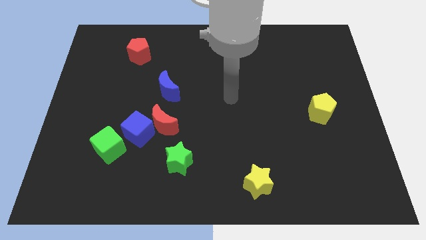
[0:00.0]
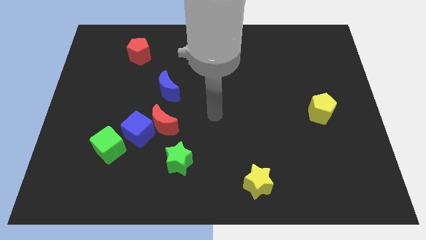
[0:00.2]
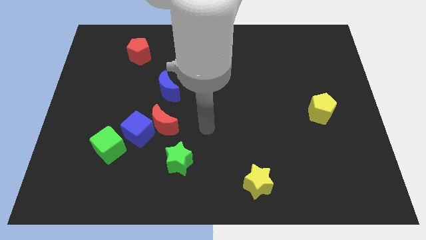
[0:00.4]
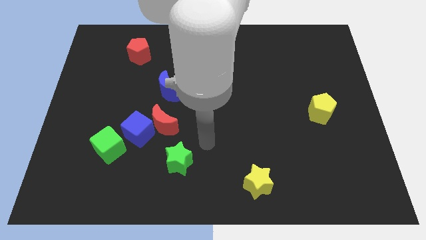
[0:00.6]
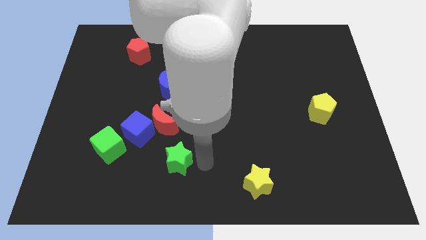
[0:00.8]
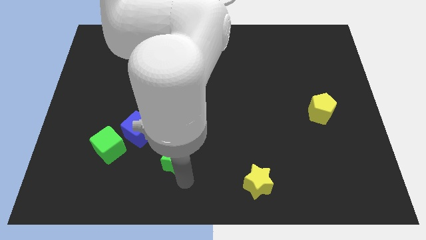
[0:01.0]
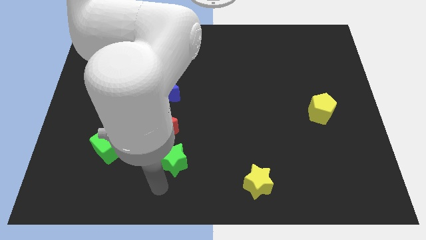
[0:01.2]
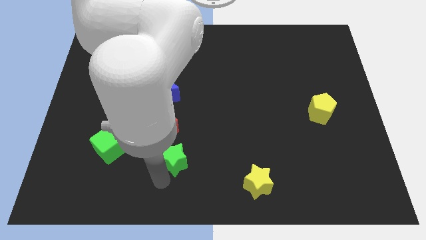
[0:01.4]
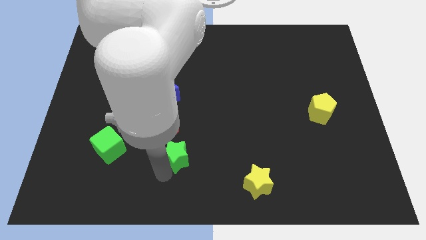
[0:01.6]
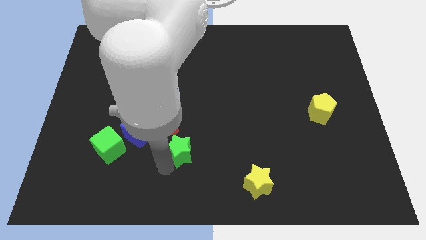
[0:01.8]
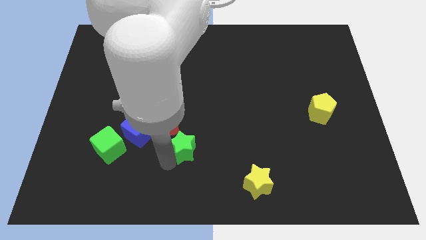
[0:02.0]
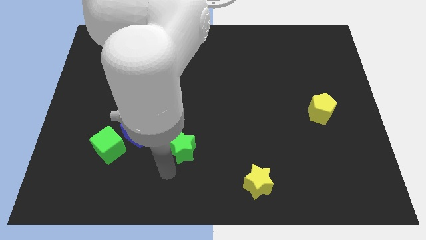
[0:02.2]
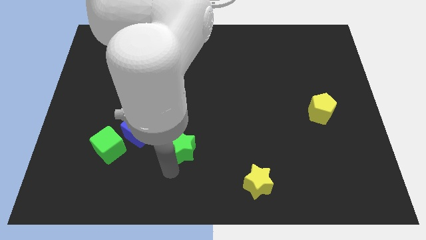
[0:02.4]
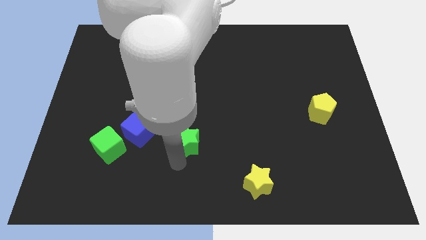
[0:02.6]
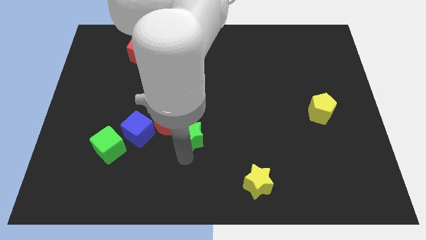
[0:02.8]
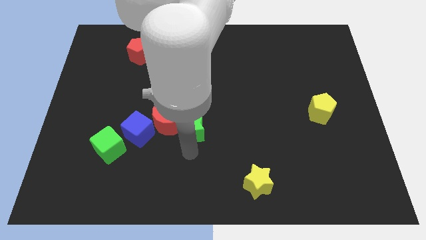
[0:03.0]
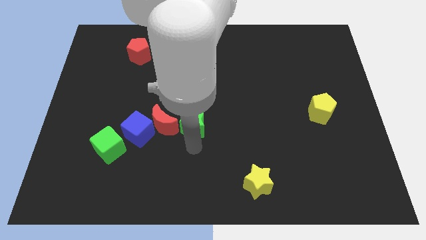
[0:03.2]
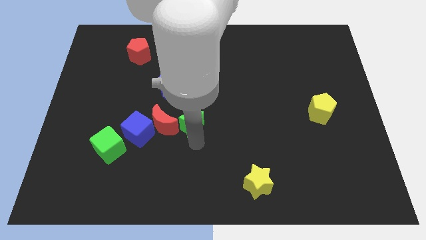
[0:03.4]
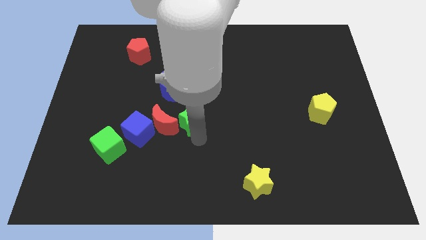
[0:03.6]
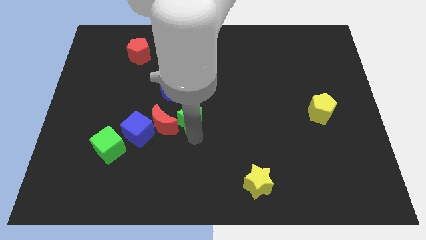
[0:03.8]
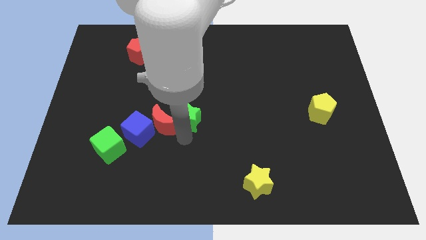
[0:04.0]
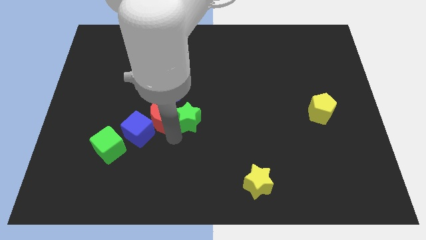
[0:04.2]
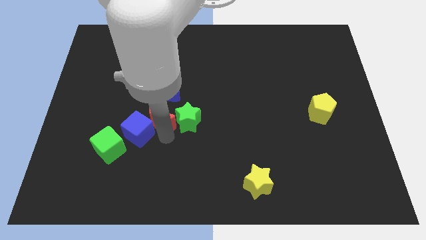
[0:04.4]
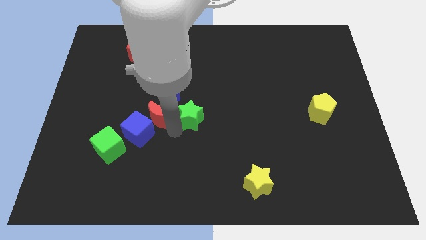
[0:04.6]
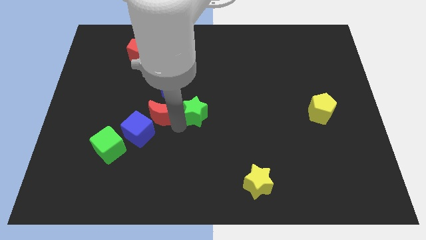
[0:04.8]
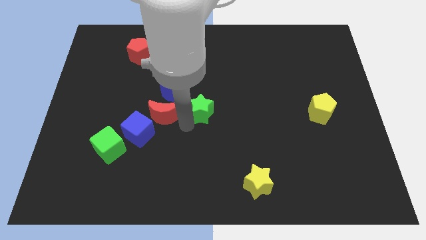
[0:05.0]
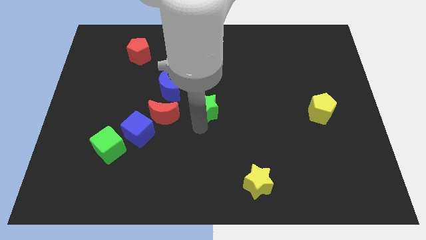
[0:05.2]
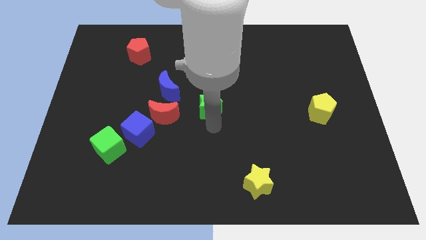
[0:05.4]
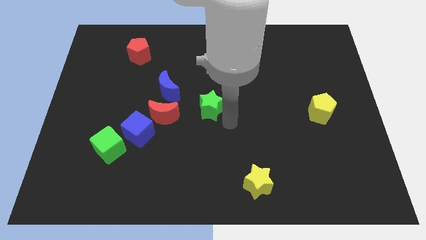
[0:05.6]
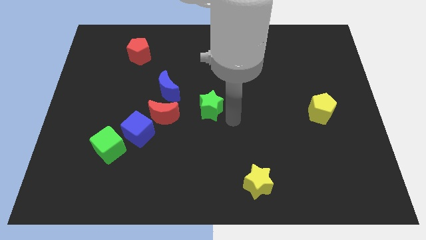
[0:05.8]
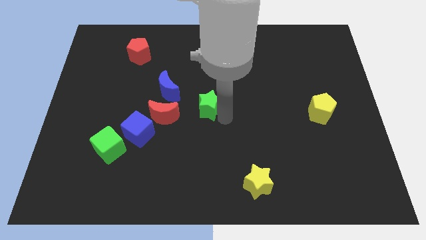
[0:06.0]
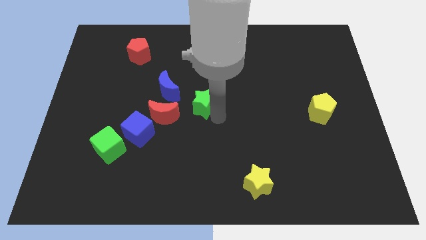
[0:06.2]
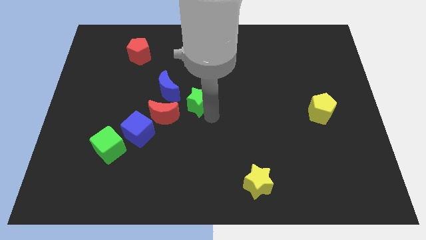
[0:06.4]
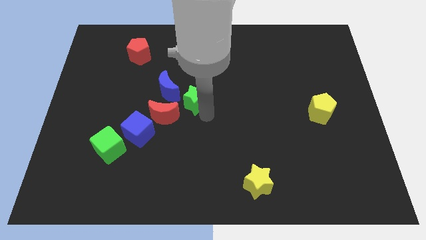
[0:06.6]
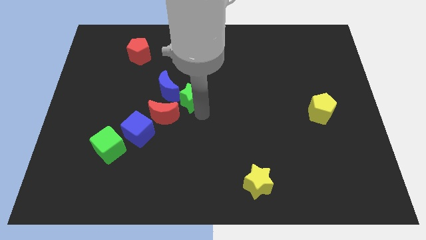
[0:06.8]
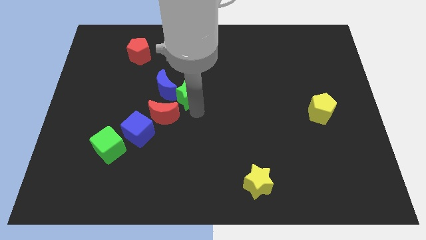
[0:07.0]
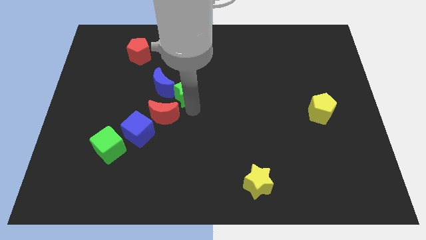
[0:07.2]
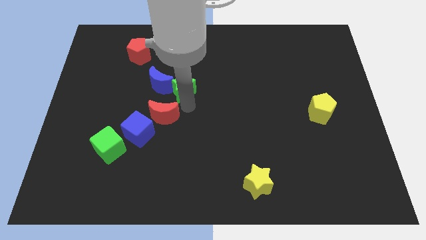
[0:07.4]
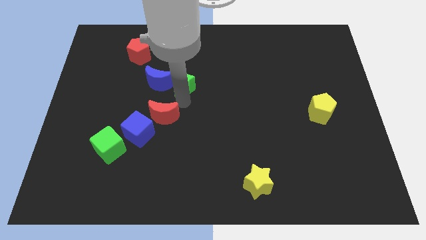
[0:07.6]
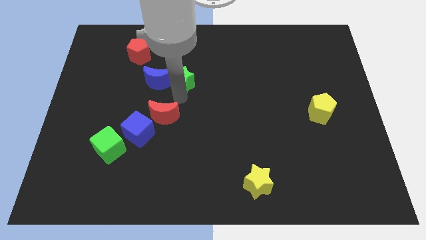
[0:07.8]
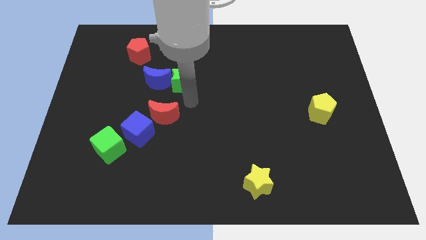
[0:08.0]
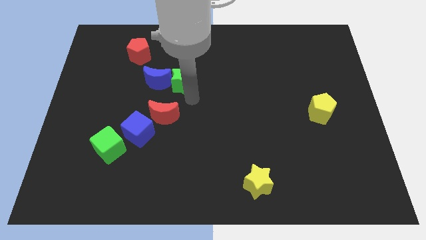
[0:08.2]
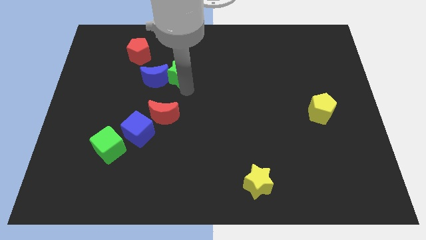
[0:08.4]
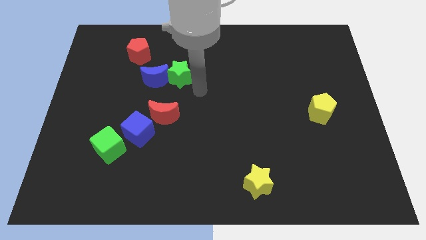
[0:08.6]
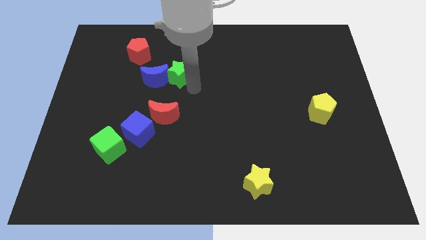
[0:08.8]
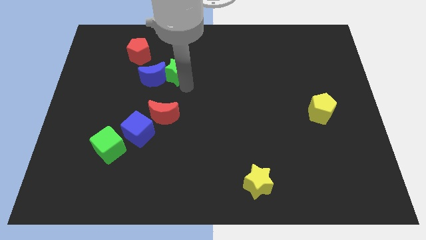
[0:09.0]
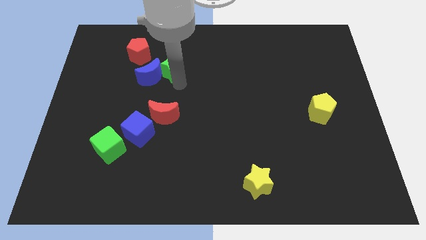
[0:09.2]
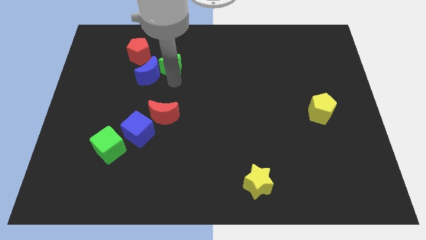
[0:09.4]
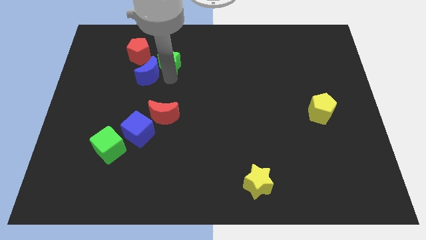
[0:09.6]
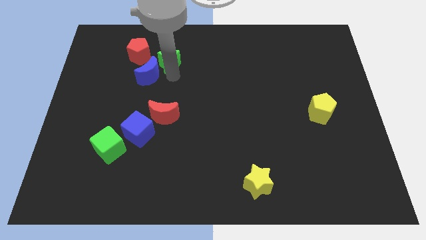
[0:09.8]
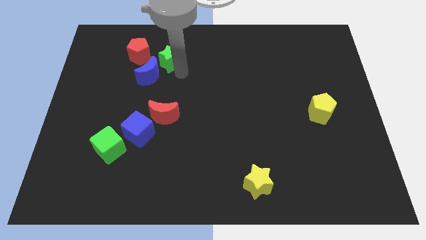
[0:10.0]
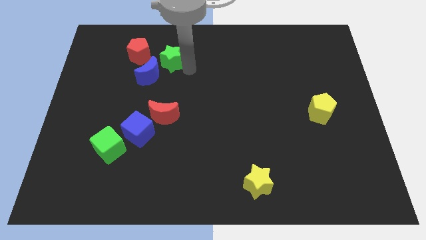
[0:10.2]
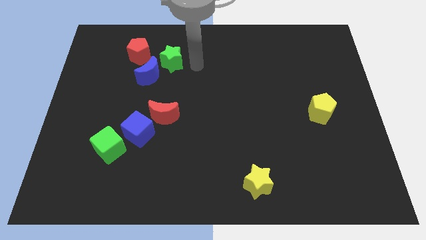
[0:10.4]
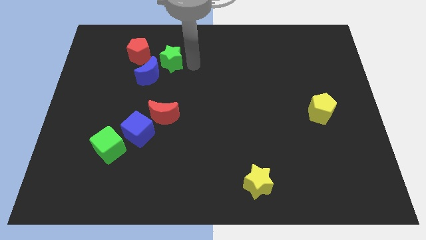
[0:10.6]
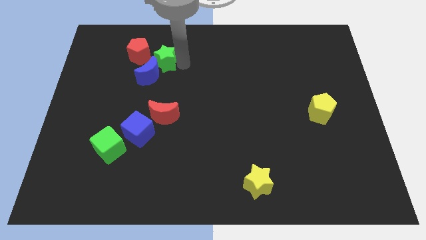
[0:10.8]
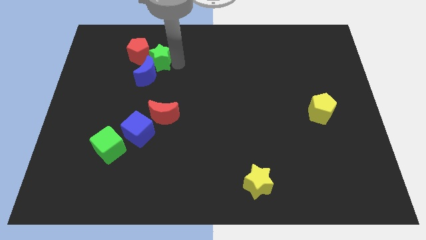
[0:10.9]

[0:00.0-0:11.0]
move the green star next to the red pentagon

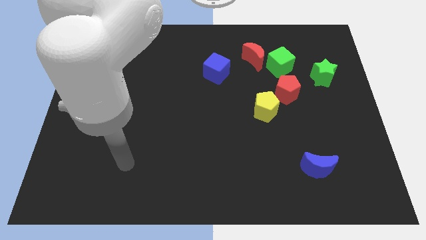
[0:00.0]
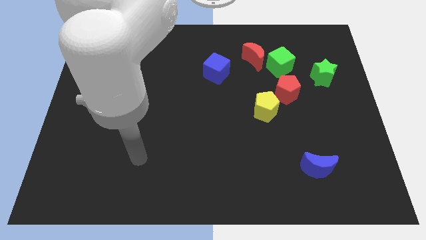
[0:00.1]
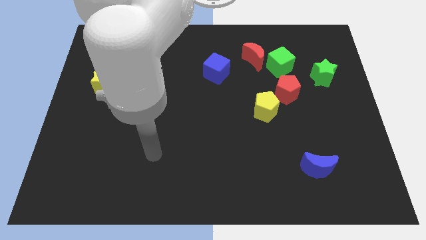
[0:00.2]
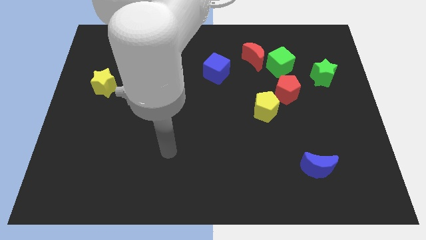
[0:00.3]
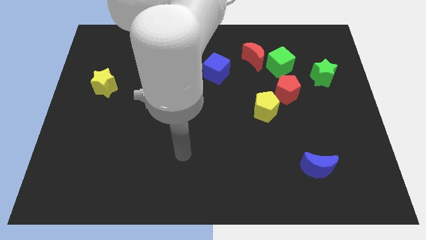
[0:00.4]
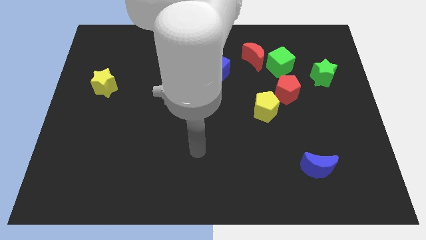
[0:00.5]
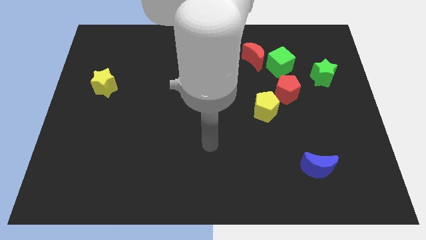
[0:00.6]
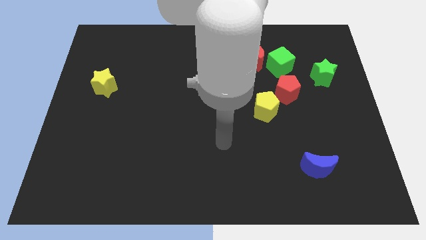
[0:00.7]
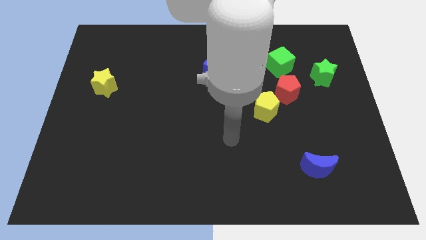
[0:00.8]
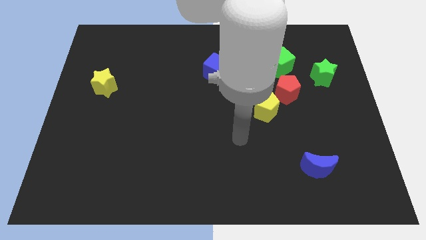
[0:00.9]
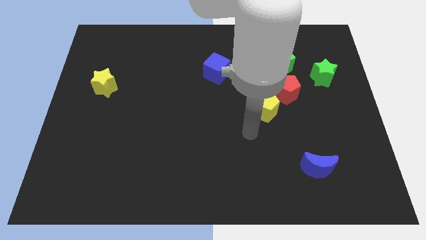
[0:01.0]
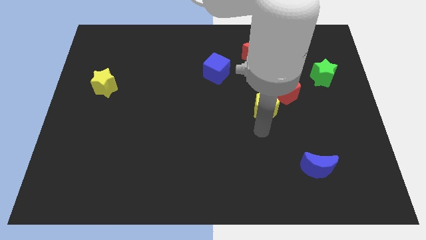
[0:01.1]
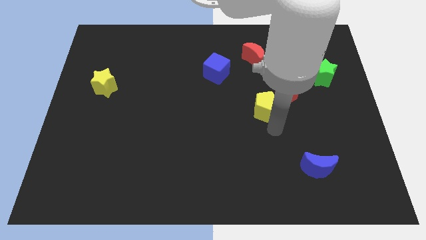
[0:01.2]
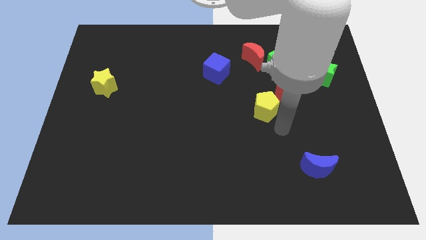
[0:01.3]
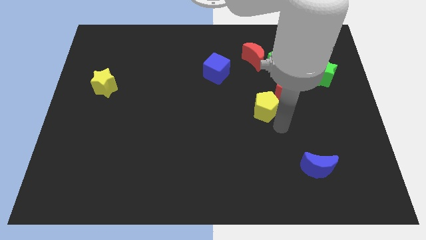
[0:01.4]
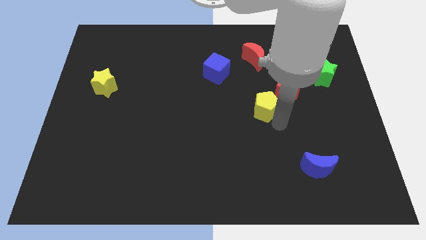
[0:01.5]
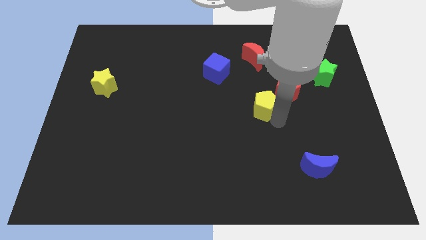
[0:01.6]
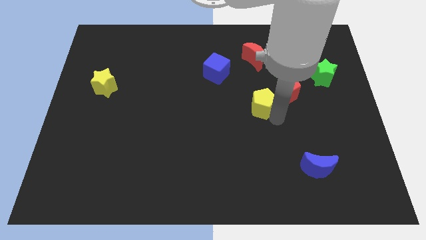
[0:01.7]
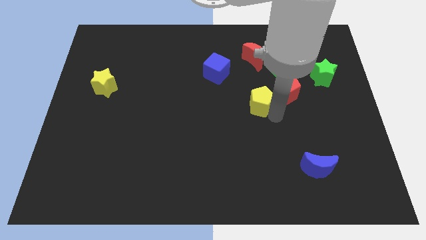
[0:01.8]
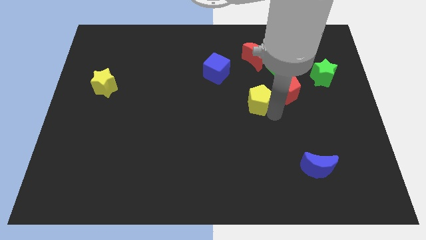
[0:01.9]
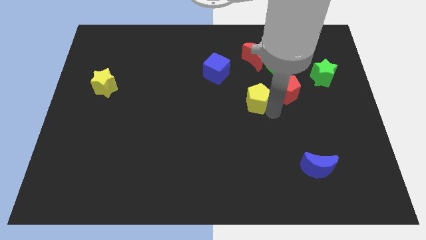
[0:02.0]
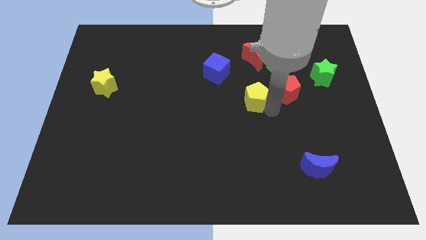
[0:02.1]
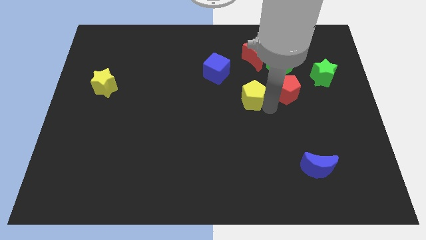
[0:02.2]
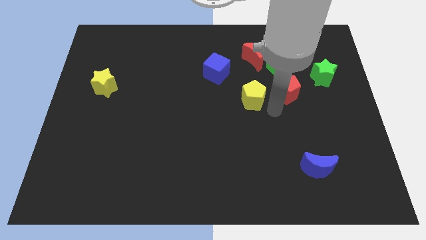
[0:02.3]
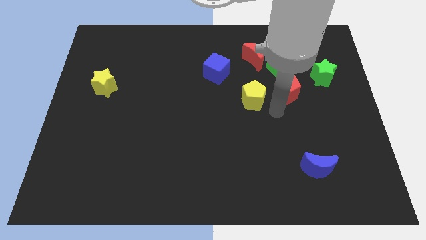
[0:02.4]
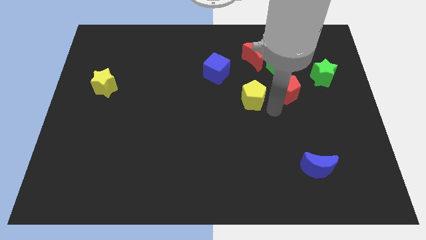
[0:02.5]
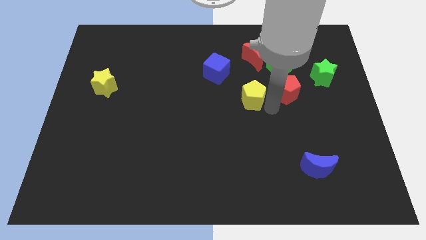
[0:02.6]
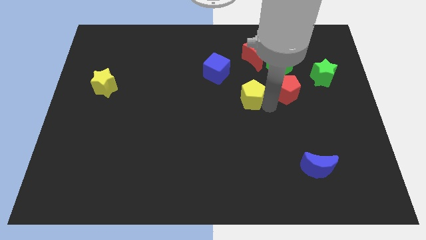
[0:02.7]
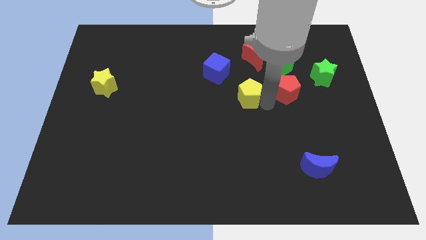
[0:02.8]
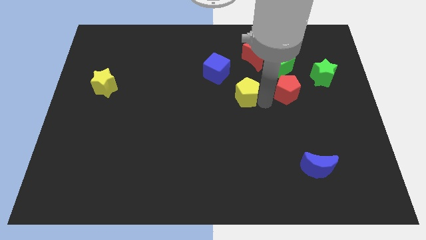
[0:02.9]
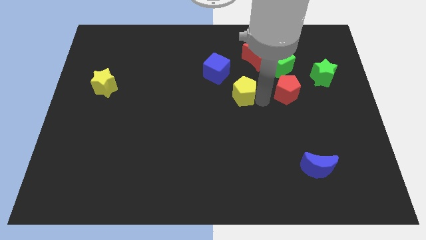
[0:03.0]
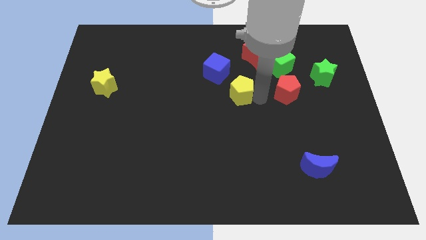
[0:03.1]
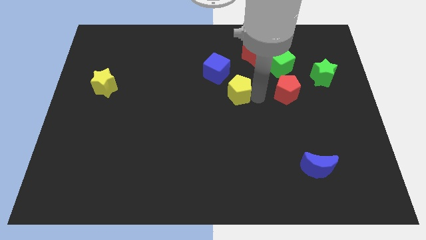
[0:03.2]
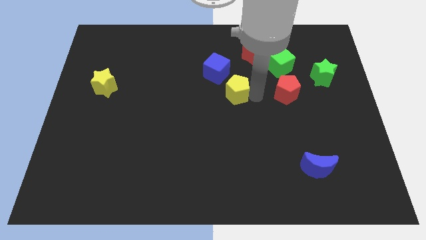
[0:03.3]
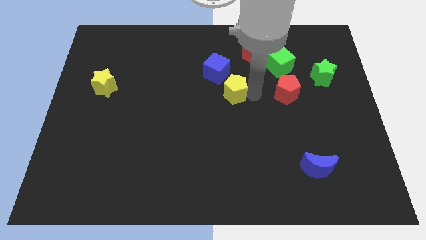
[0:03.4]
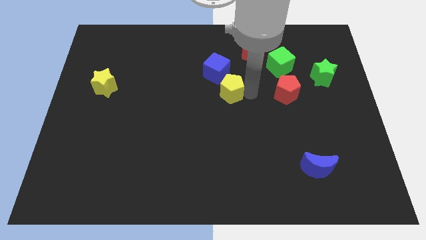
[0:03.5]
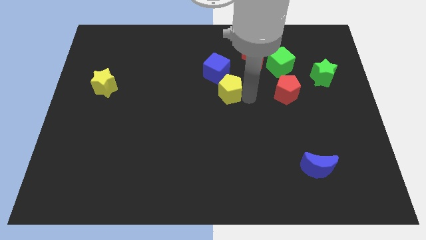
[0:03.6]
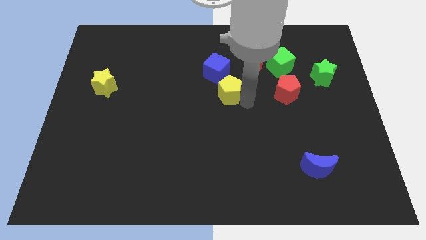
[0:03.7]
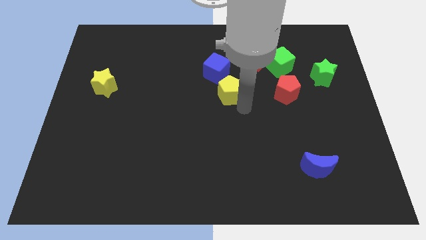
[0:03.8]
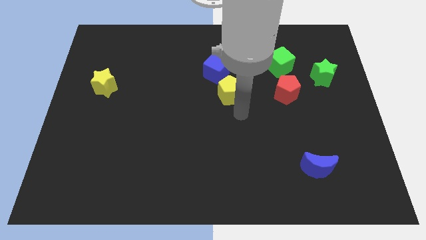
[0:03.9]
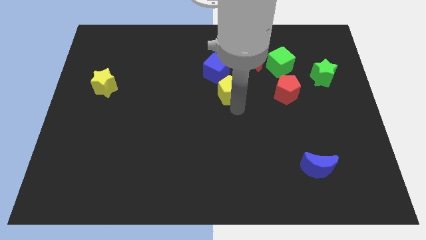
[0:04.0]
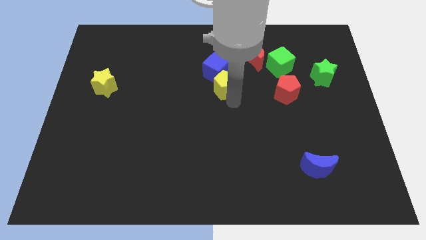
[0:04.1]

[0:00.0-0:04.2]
move the yellow pentagon towards the blue cube
